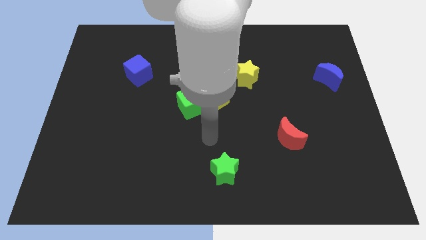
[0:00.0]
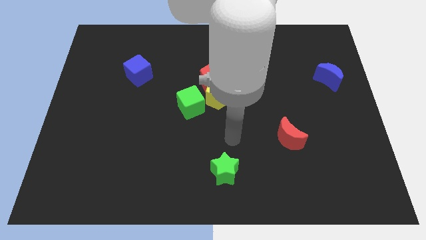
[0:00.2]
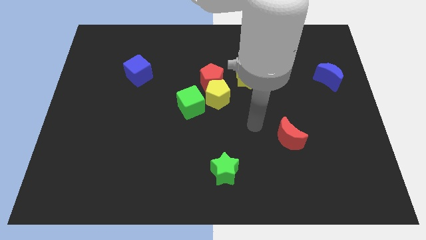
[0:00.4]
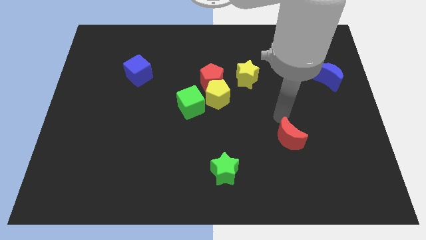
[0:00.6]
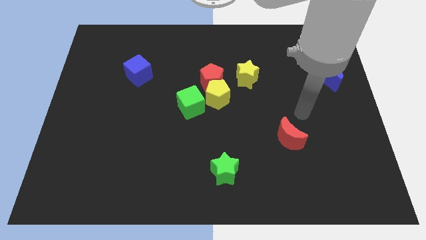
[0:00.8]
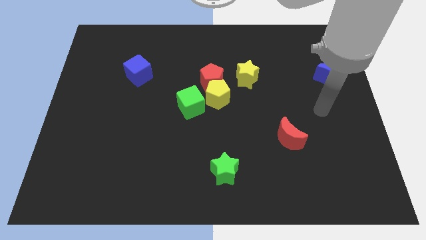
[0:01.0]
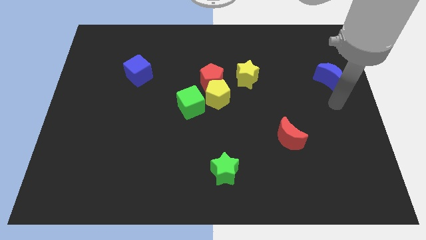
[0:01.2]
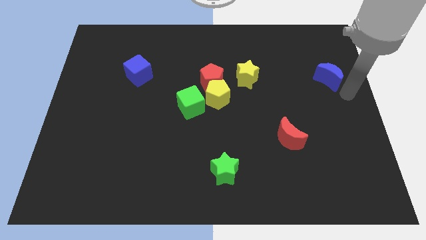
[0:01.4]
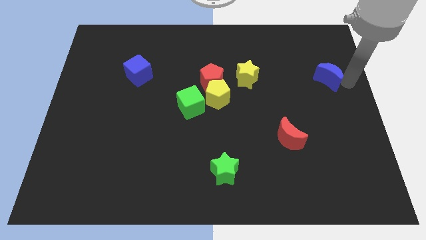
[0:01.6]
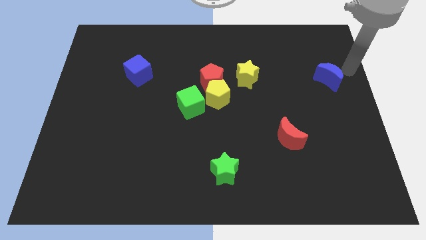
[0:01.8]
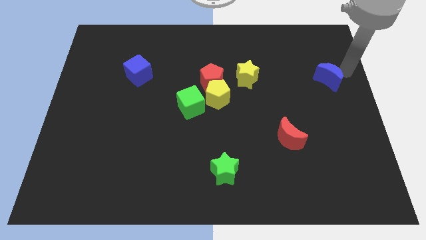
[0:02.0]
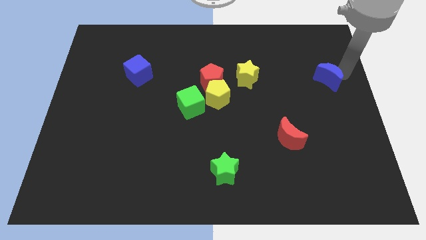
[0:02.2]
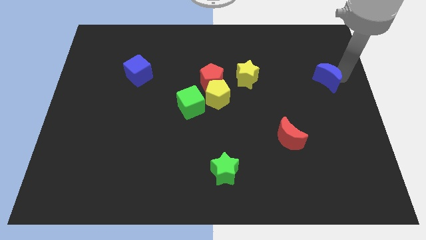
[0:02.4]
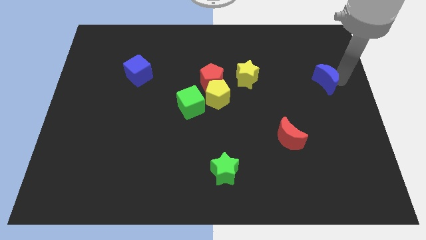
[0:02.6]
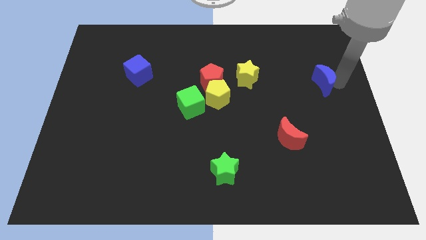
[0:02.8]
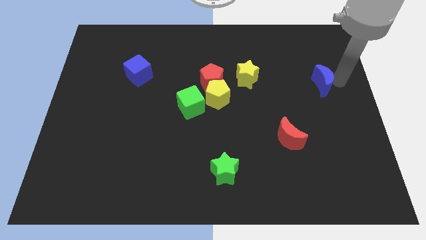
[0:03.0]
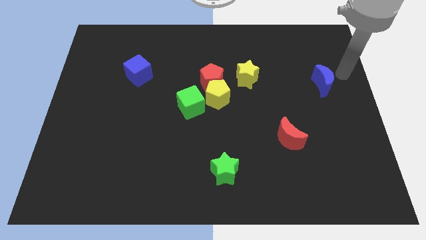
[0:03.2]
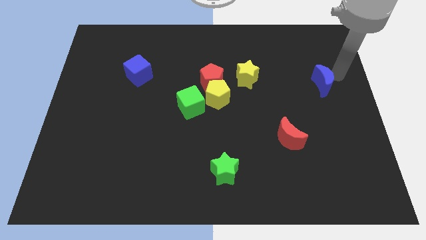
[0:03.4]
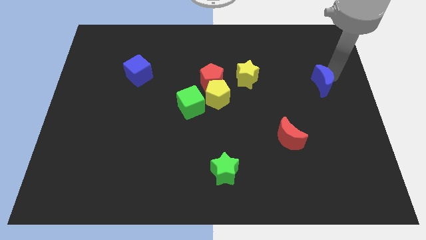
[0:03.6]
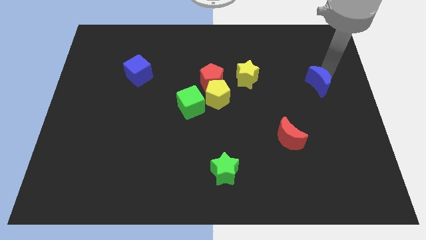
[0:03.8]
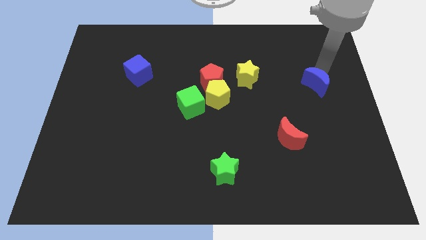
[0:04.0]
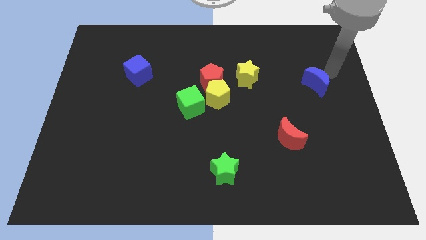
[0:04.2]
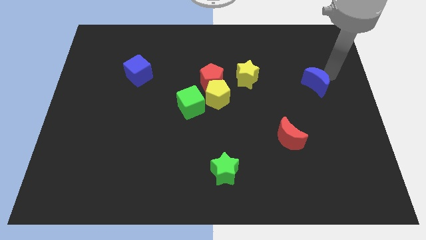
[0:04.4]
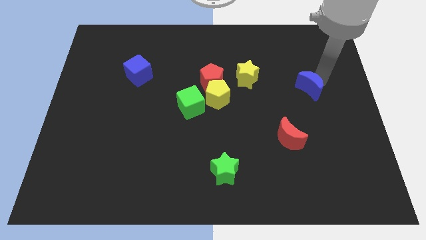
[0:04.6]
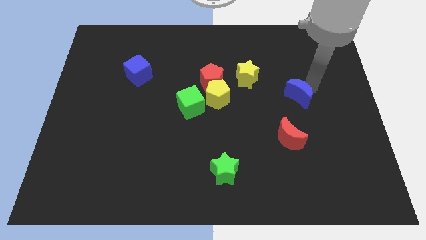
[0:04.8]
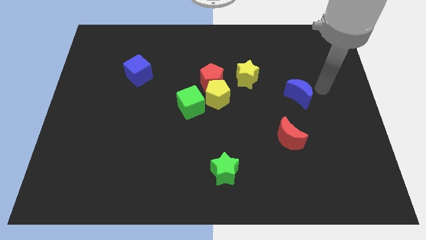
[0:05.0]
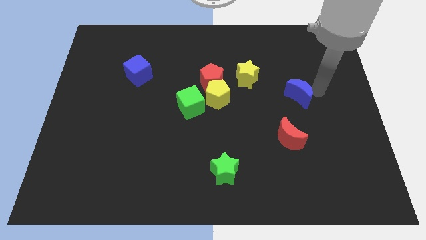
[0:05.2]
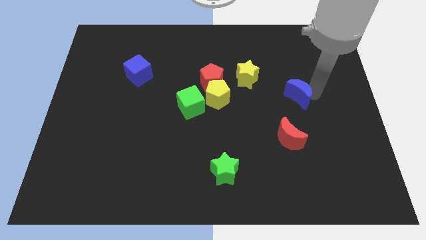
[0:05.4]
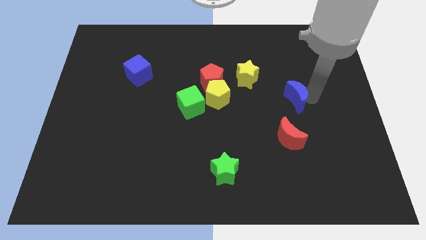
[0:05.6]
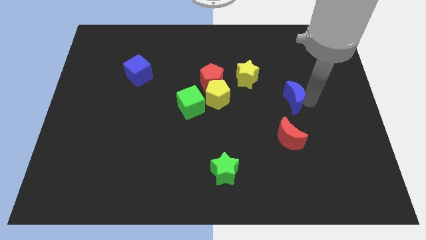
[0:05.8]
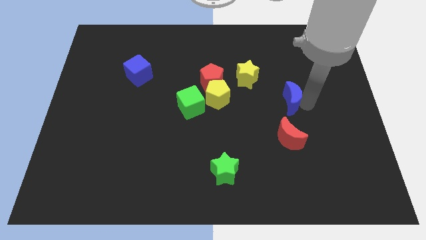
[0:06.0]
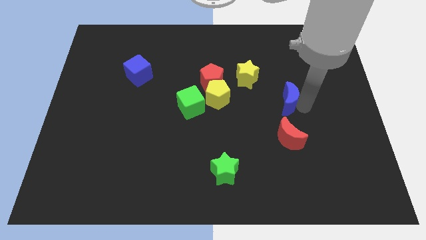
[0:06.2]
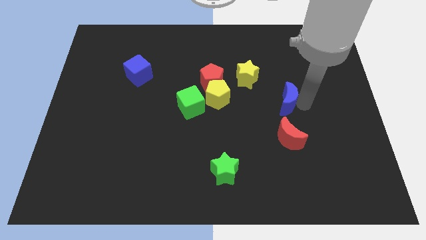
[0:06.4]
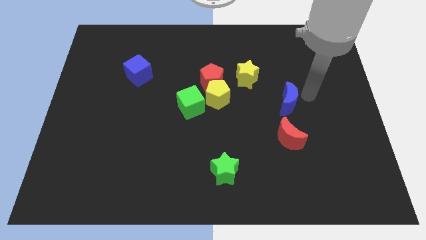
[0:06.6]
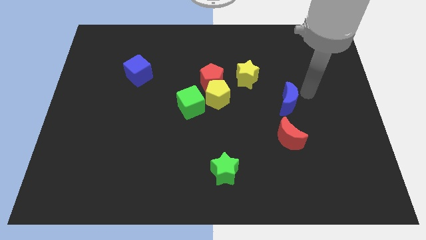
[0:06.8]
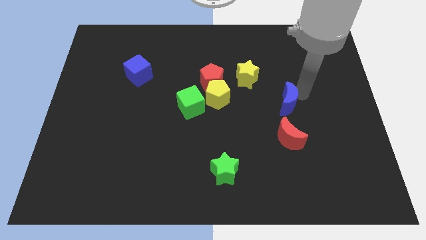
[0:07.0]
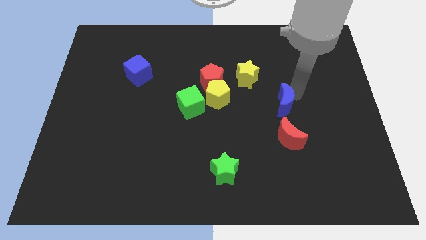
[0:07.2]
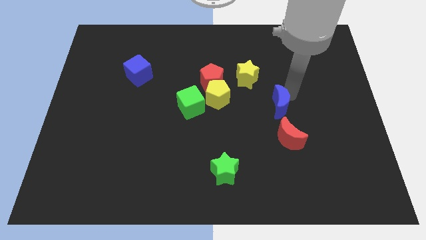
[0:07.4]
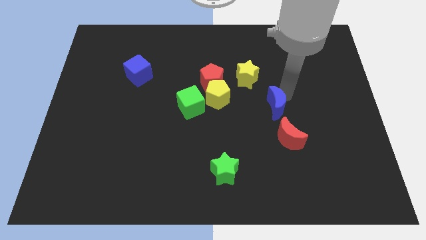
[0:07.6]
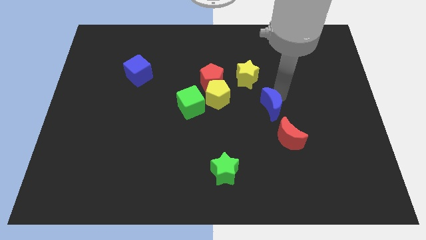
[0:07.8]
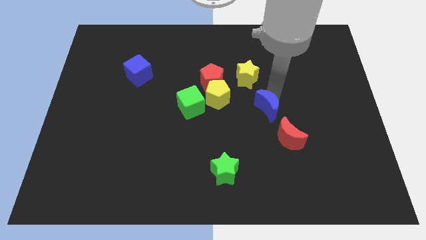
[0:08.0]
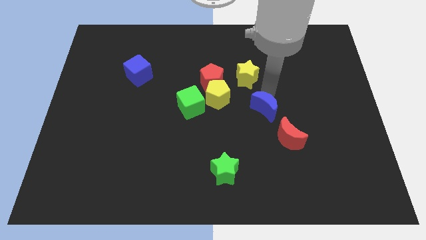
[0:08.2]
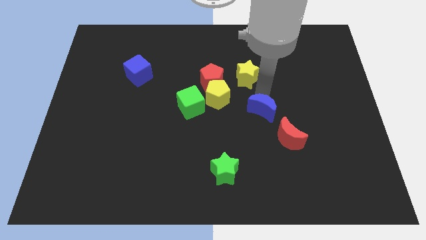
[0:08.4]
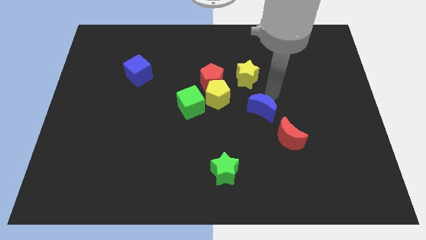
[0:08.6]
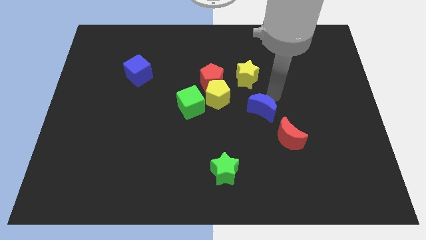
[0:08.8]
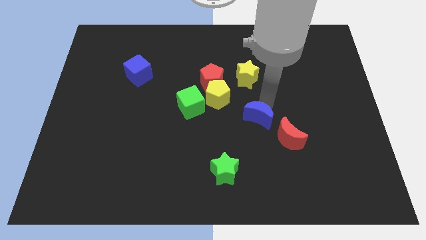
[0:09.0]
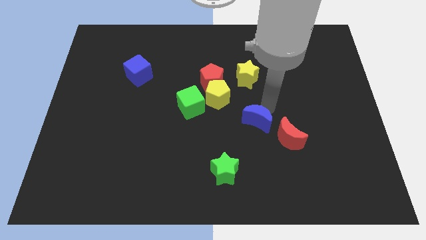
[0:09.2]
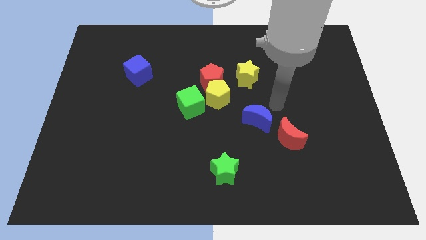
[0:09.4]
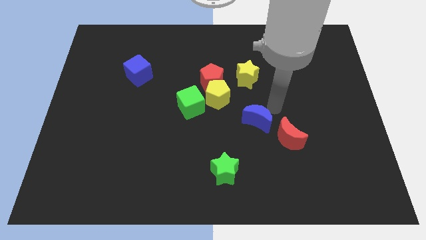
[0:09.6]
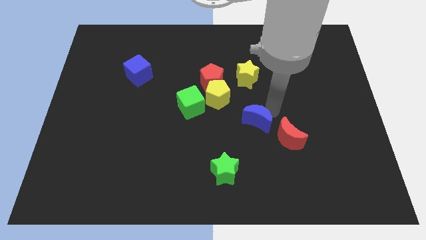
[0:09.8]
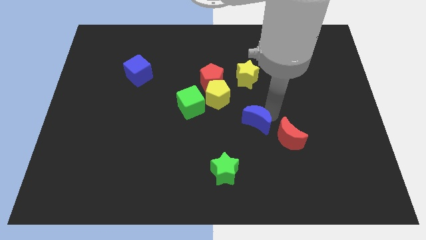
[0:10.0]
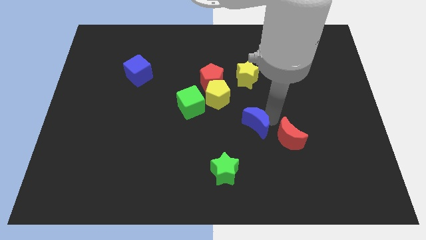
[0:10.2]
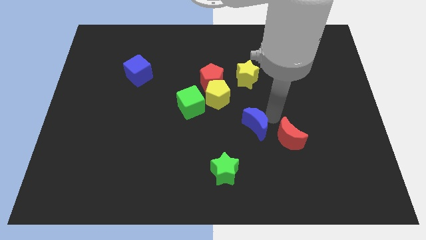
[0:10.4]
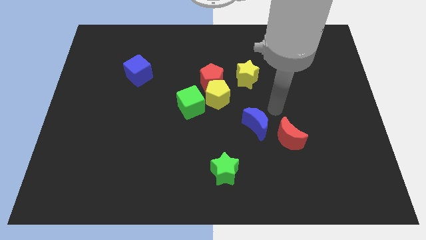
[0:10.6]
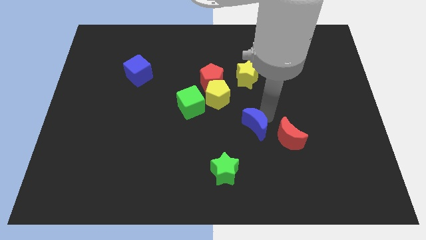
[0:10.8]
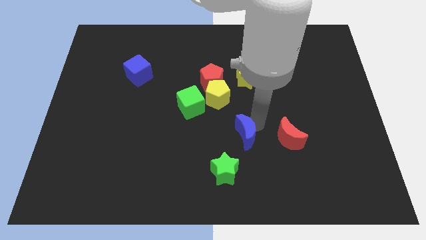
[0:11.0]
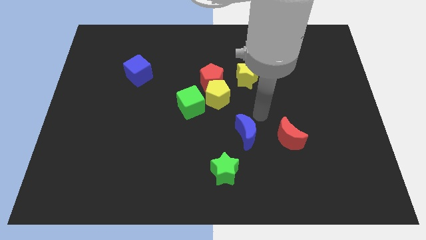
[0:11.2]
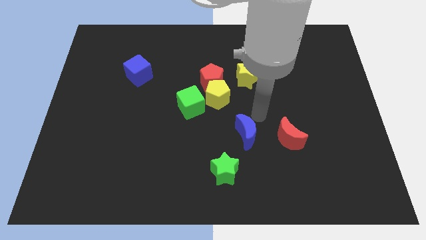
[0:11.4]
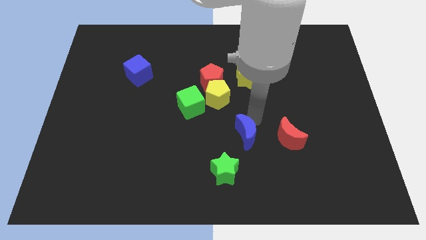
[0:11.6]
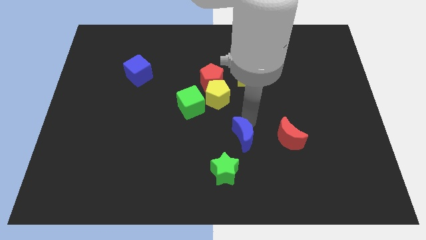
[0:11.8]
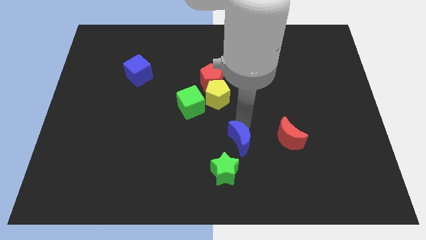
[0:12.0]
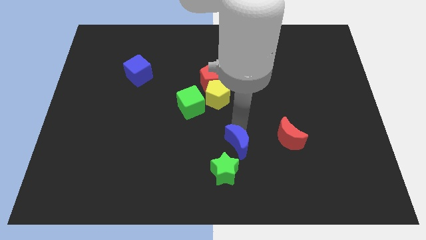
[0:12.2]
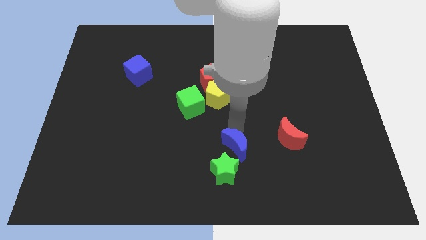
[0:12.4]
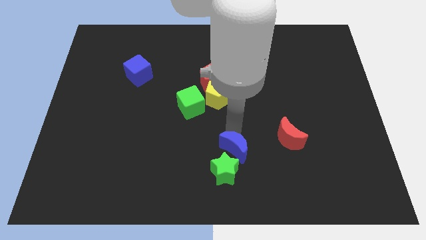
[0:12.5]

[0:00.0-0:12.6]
push the blue moon to the green star
